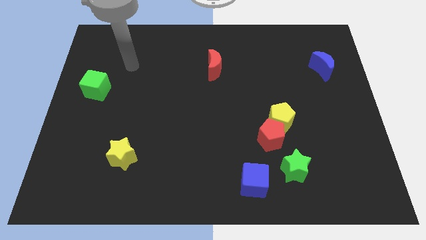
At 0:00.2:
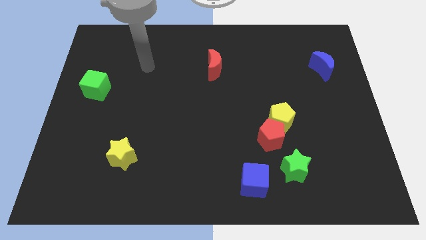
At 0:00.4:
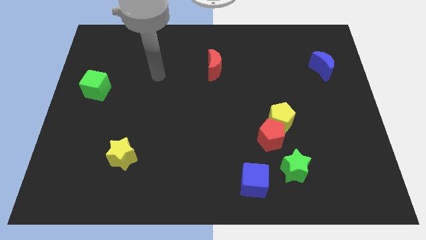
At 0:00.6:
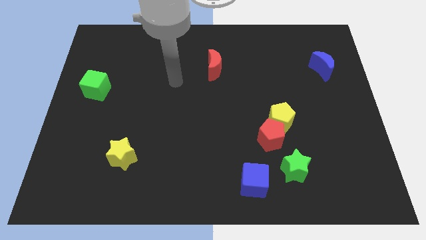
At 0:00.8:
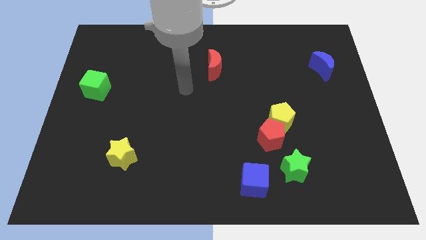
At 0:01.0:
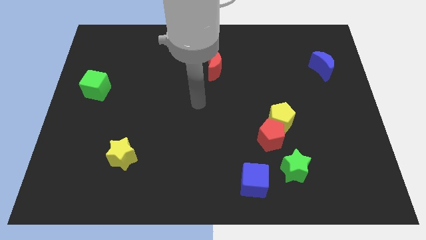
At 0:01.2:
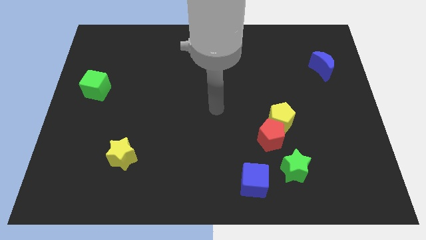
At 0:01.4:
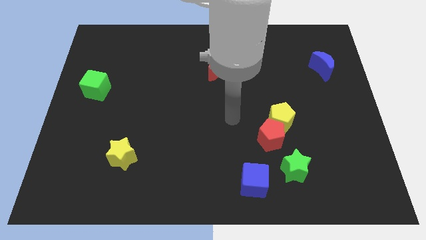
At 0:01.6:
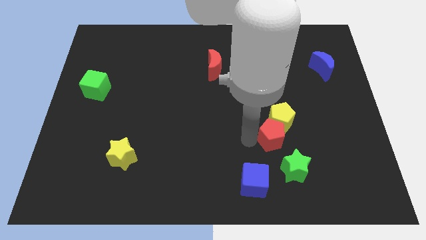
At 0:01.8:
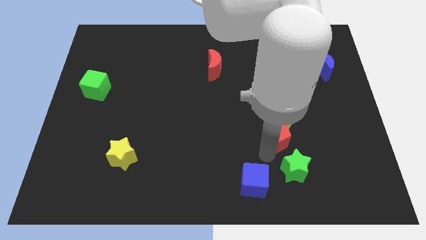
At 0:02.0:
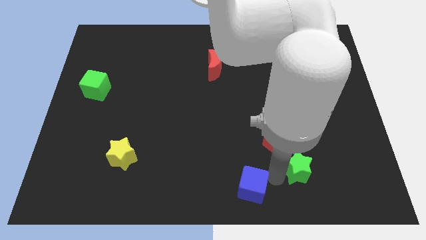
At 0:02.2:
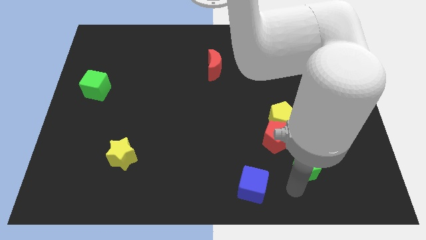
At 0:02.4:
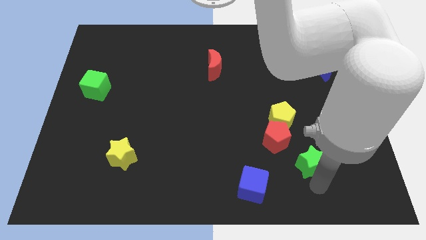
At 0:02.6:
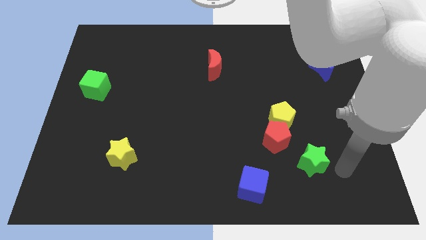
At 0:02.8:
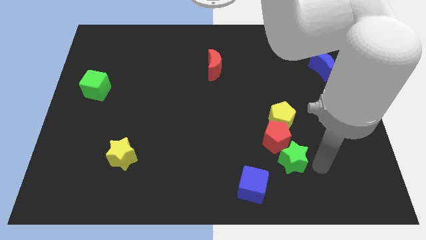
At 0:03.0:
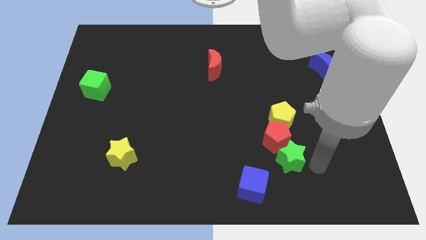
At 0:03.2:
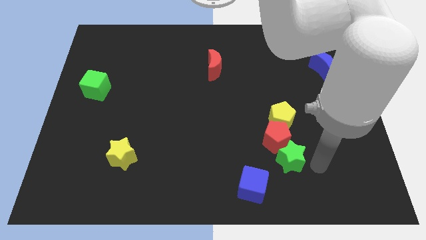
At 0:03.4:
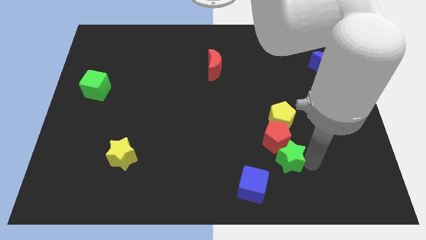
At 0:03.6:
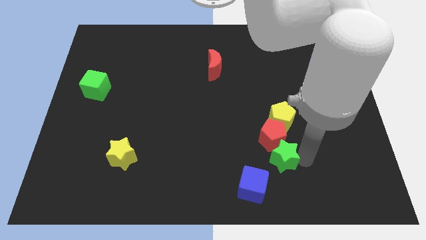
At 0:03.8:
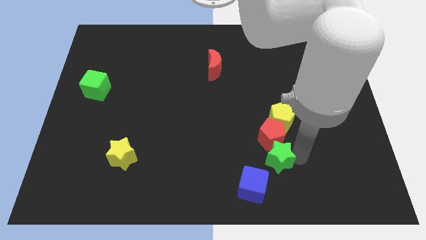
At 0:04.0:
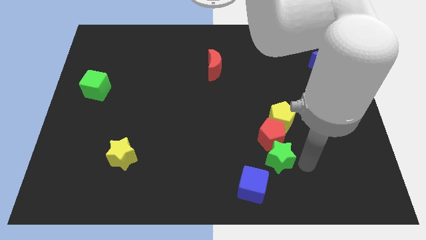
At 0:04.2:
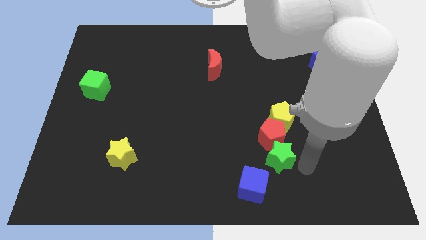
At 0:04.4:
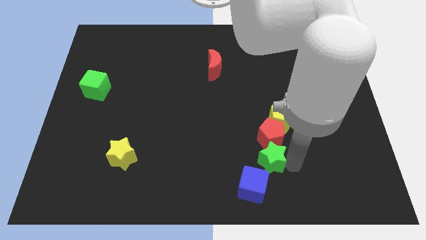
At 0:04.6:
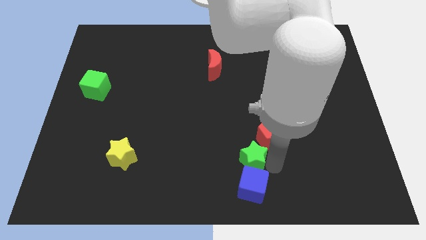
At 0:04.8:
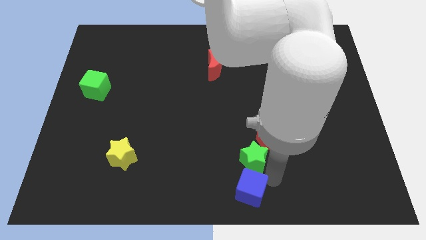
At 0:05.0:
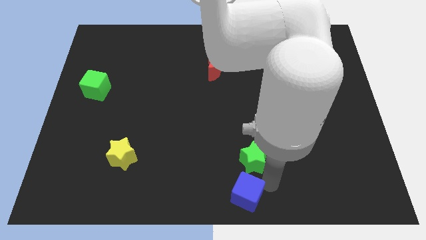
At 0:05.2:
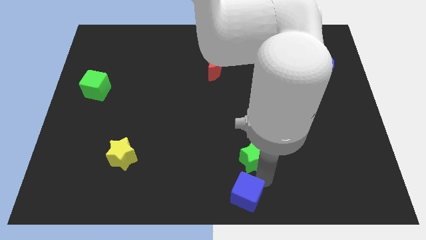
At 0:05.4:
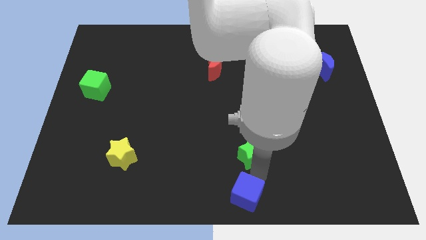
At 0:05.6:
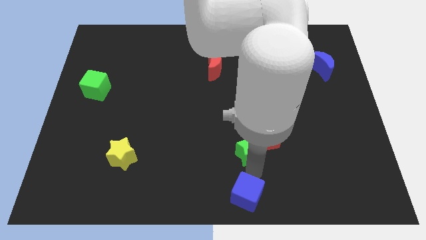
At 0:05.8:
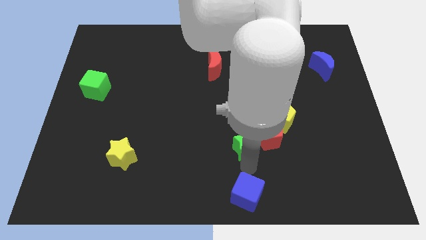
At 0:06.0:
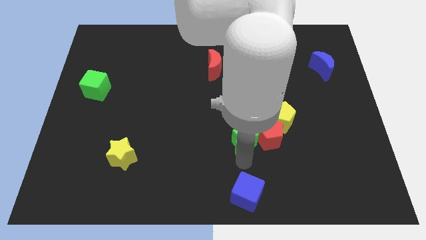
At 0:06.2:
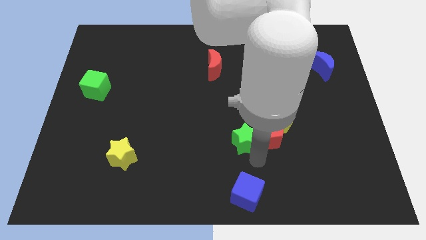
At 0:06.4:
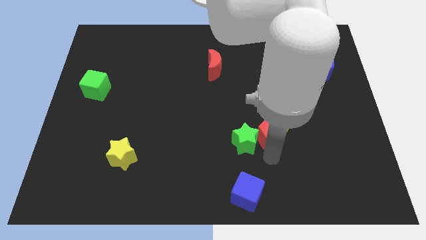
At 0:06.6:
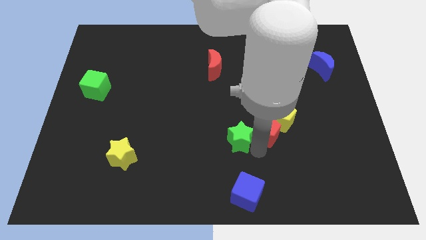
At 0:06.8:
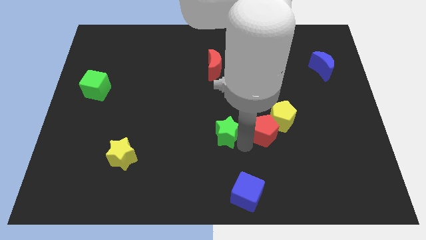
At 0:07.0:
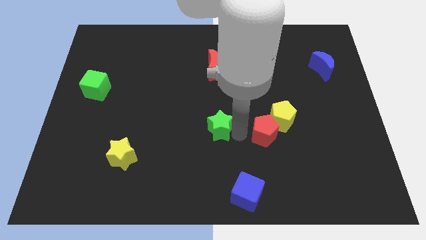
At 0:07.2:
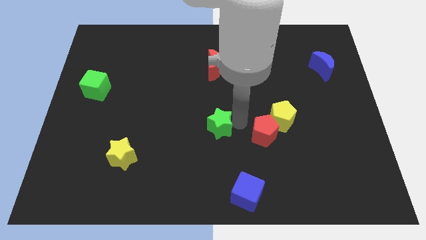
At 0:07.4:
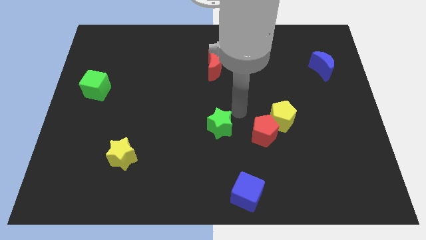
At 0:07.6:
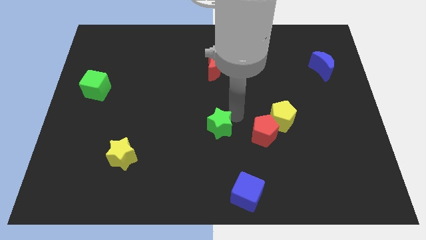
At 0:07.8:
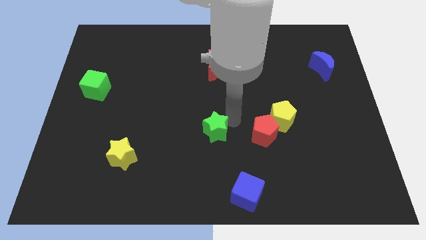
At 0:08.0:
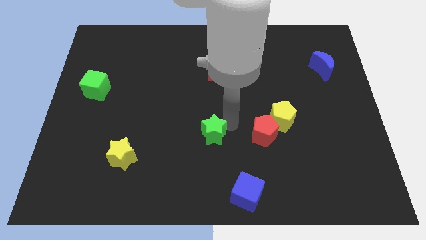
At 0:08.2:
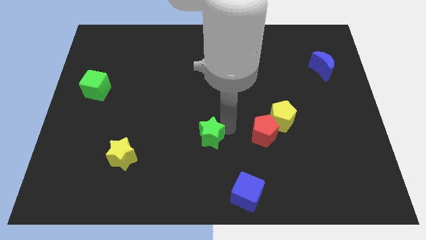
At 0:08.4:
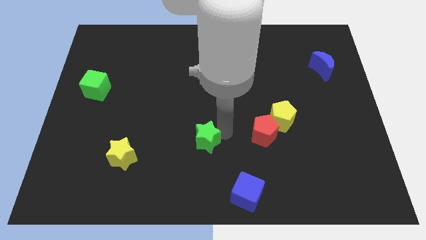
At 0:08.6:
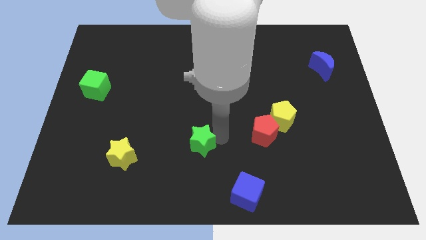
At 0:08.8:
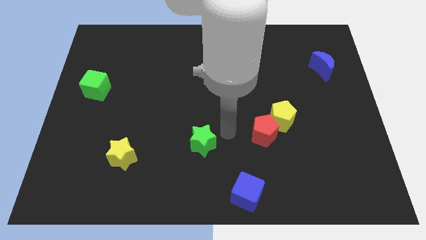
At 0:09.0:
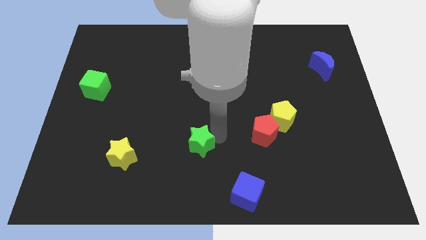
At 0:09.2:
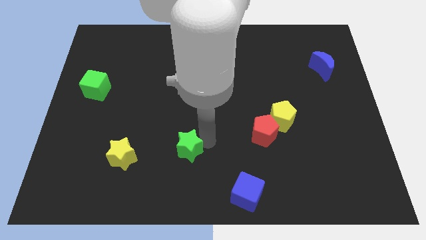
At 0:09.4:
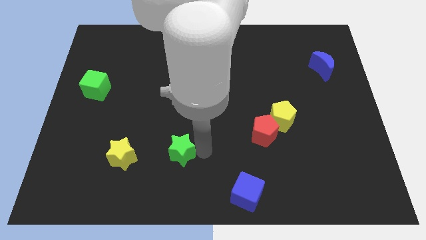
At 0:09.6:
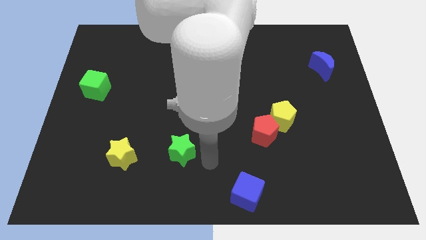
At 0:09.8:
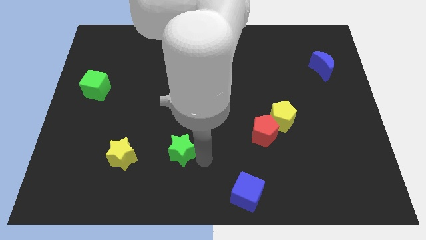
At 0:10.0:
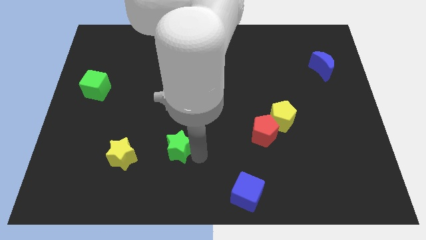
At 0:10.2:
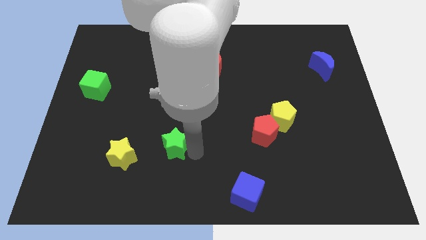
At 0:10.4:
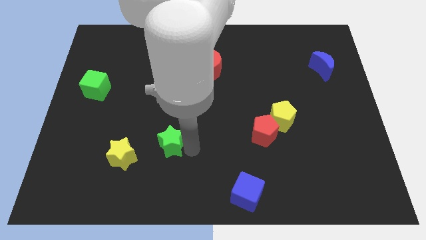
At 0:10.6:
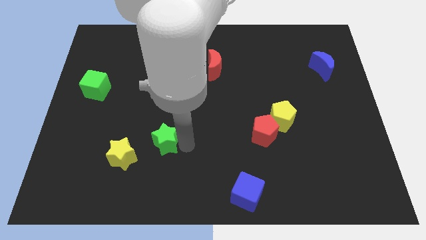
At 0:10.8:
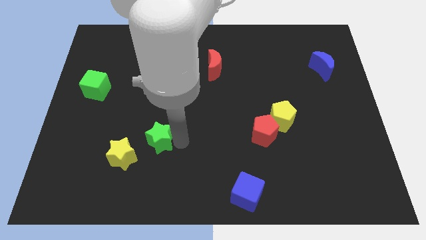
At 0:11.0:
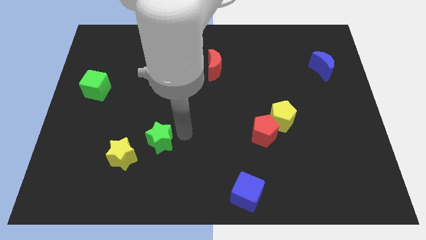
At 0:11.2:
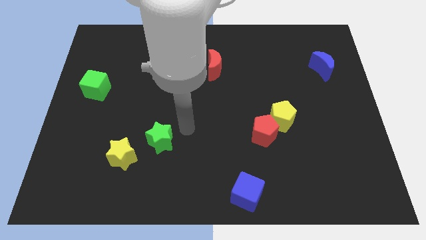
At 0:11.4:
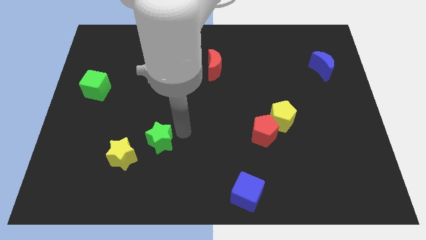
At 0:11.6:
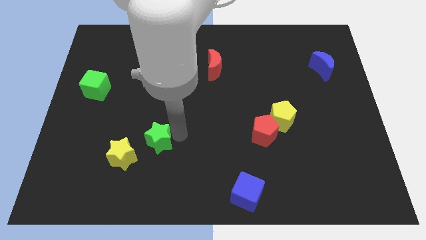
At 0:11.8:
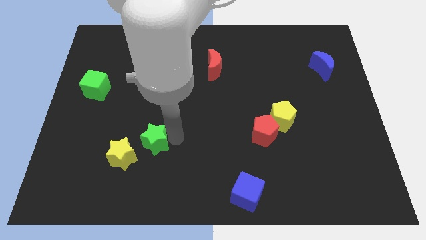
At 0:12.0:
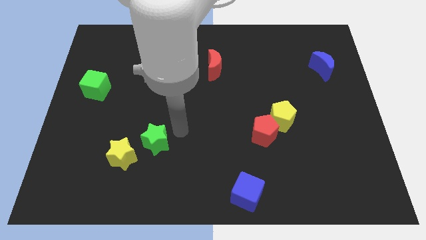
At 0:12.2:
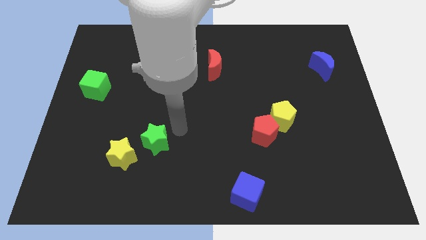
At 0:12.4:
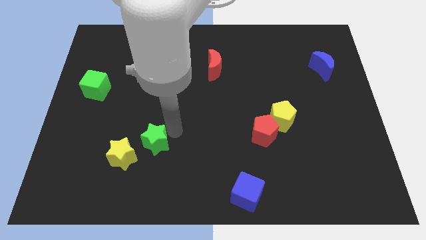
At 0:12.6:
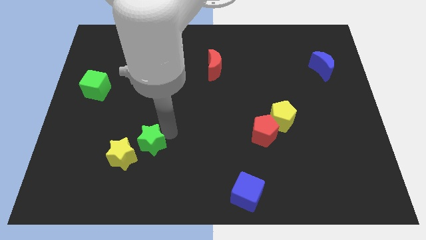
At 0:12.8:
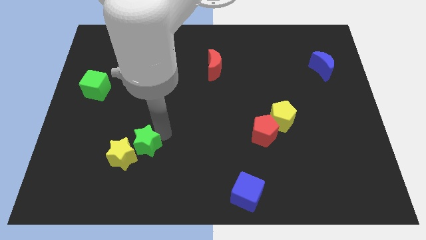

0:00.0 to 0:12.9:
move the green star next to the yellow star

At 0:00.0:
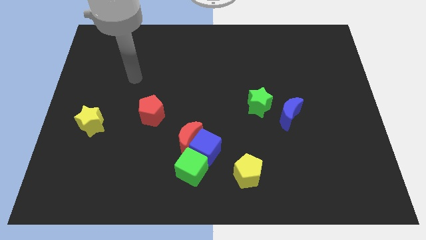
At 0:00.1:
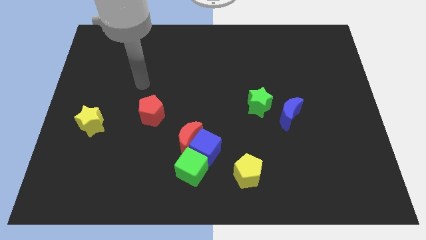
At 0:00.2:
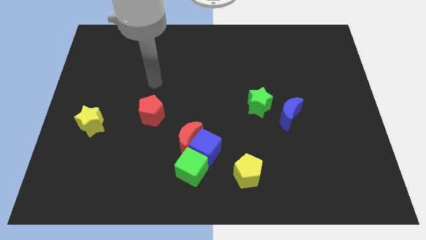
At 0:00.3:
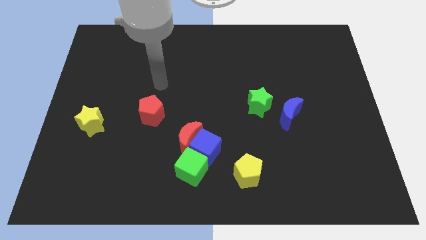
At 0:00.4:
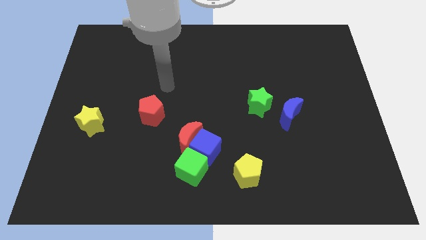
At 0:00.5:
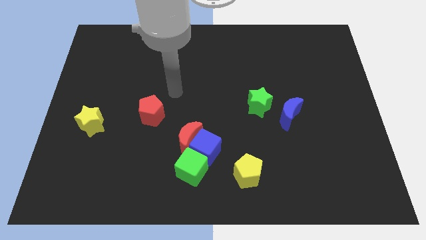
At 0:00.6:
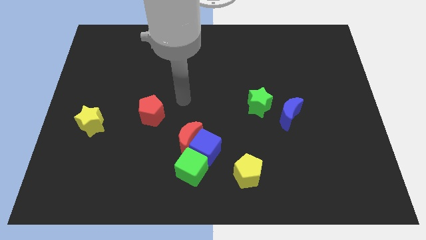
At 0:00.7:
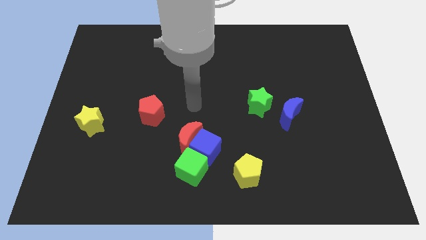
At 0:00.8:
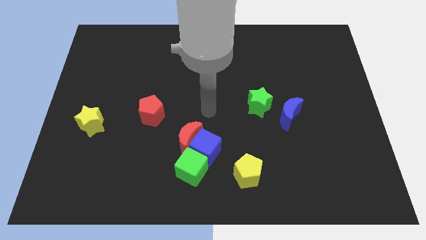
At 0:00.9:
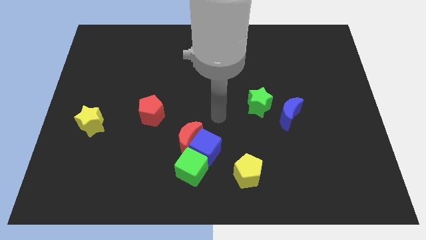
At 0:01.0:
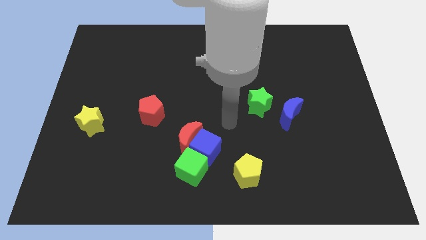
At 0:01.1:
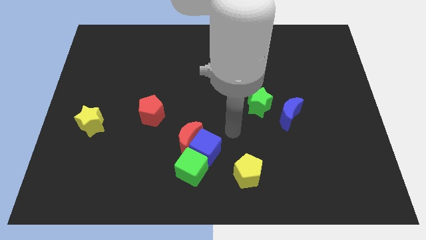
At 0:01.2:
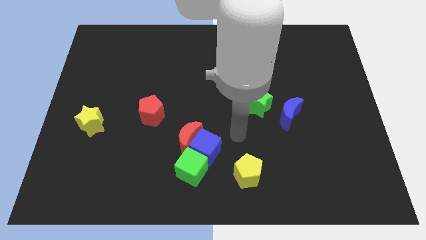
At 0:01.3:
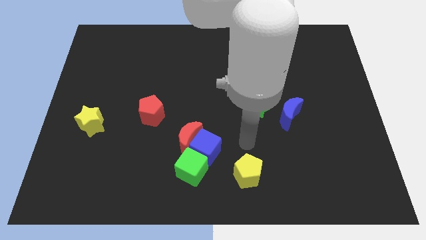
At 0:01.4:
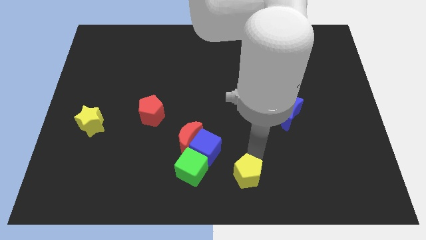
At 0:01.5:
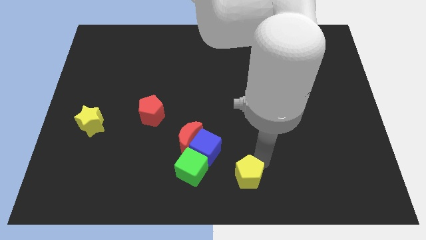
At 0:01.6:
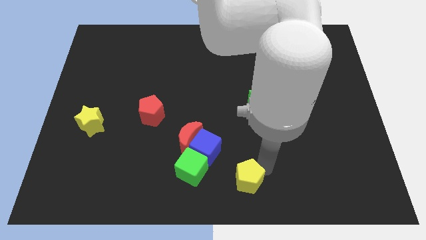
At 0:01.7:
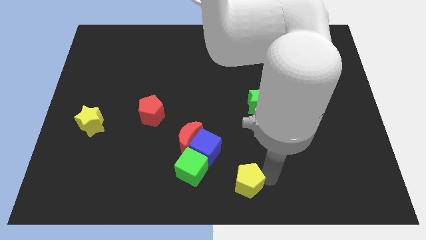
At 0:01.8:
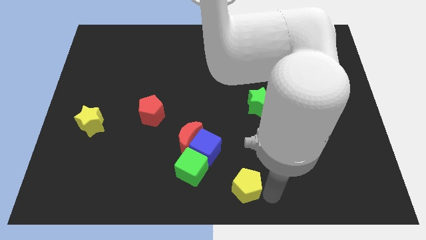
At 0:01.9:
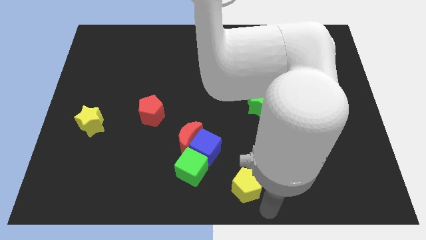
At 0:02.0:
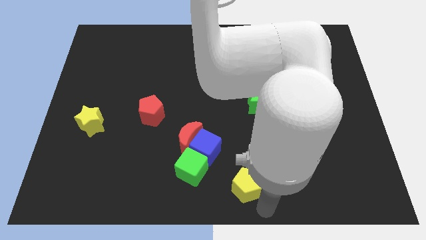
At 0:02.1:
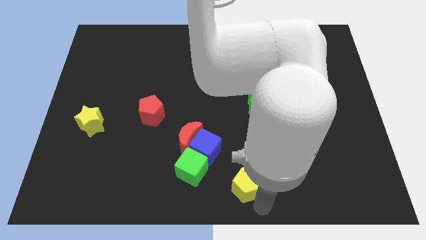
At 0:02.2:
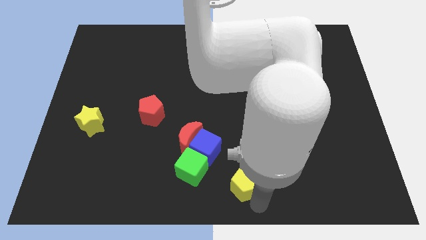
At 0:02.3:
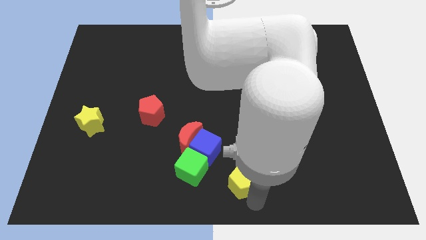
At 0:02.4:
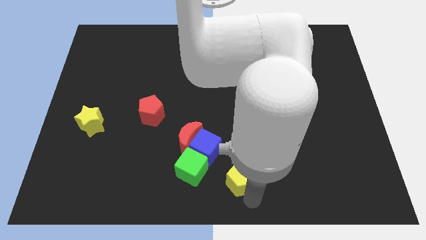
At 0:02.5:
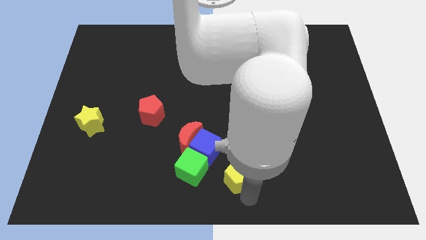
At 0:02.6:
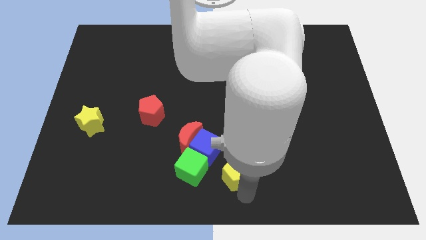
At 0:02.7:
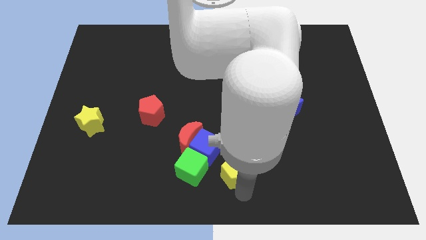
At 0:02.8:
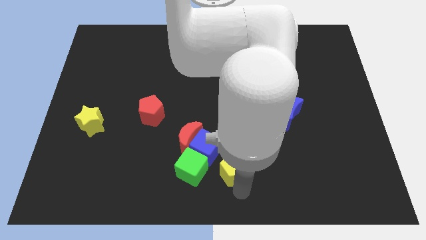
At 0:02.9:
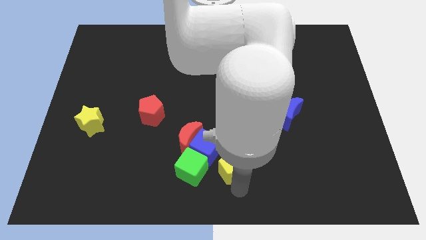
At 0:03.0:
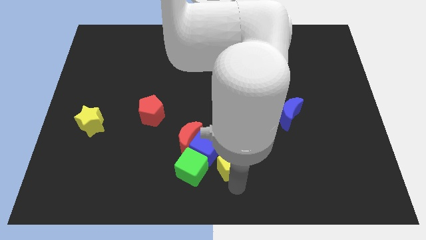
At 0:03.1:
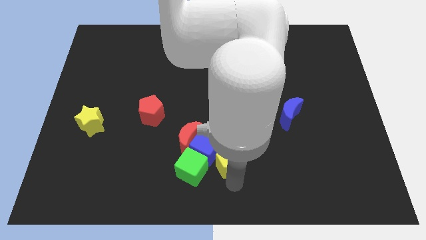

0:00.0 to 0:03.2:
slide the yellow pentagon close to the blue cube
